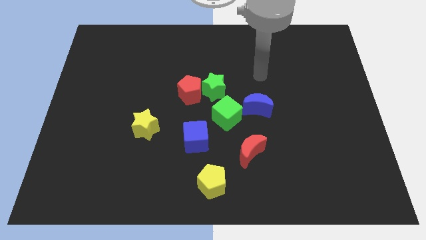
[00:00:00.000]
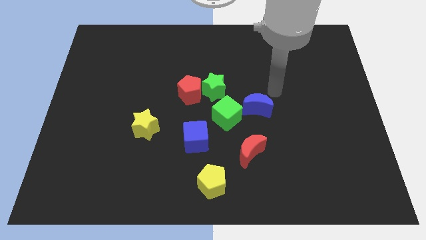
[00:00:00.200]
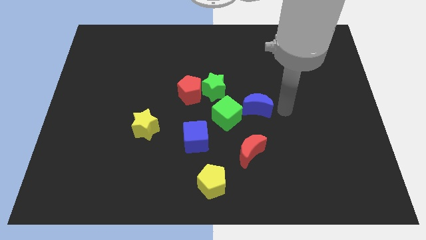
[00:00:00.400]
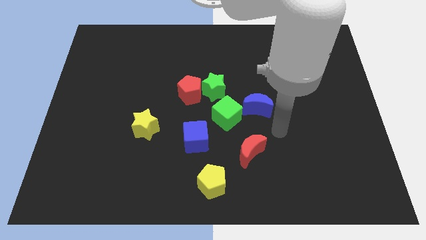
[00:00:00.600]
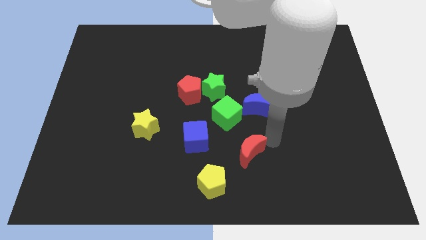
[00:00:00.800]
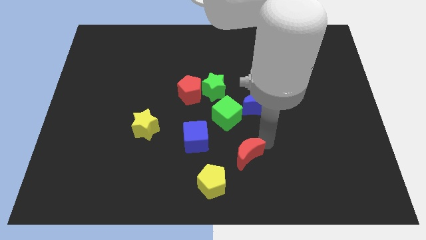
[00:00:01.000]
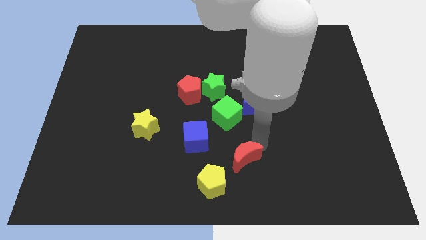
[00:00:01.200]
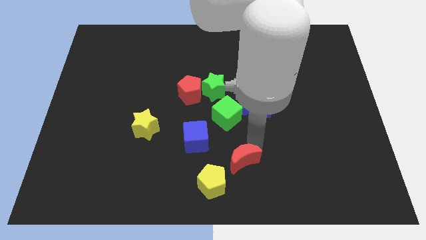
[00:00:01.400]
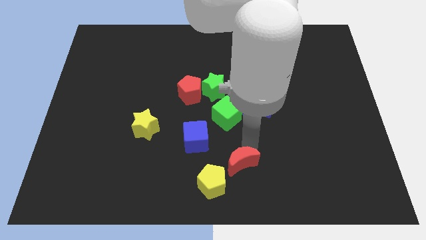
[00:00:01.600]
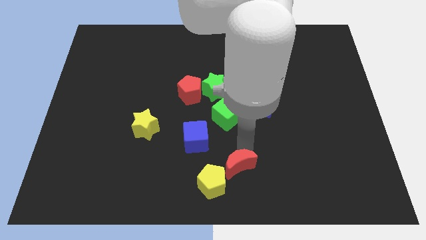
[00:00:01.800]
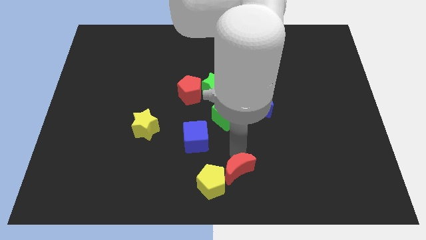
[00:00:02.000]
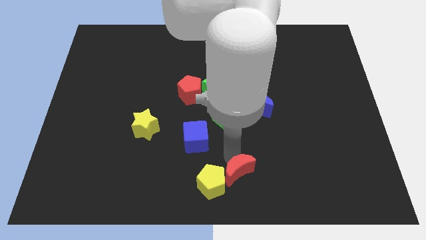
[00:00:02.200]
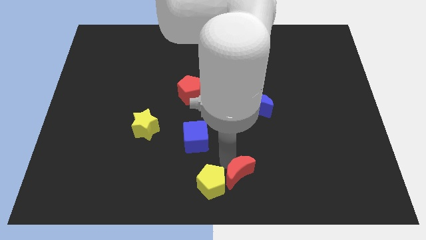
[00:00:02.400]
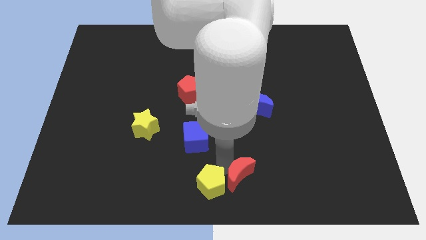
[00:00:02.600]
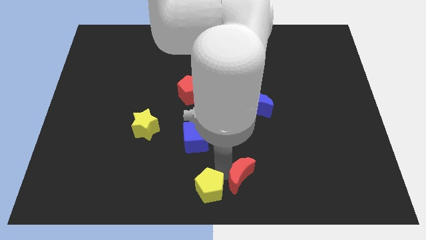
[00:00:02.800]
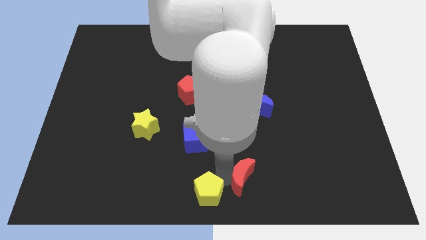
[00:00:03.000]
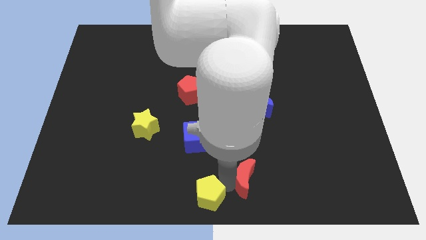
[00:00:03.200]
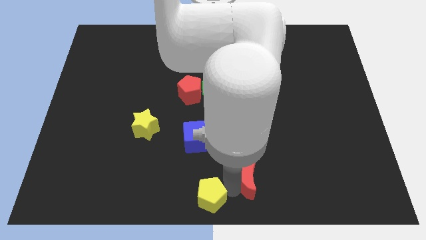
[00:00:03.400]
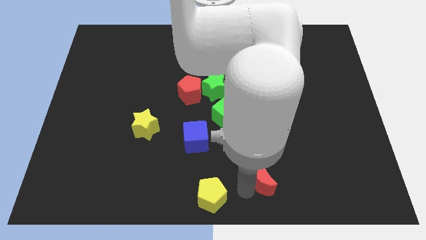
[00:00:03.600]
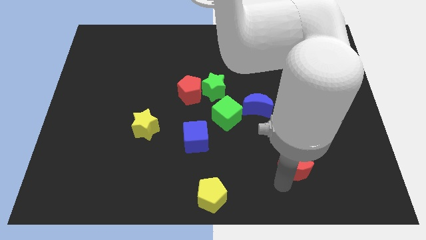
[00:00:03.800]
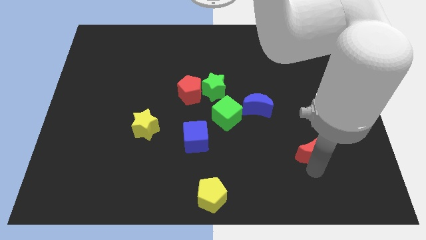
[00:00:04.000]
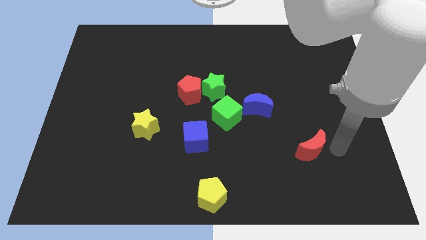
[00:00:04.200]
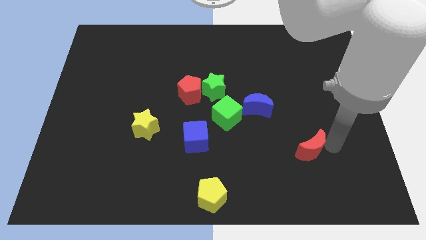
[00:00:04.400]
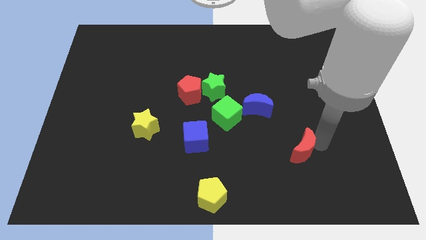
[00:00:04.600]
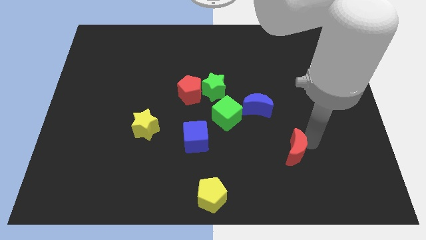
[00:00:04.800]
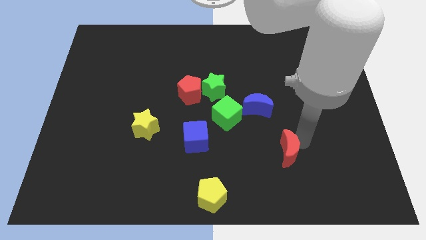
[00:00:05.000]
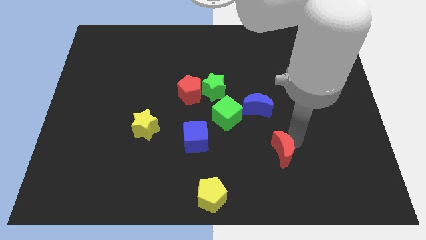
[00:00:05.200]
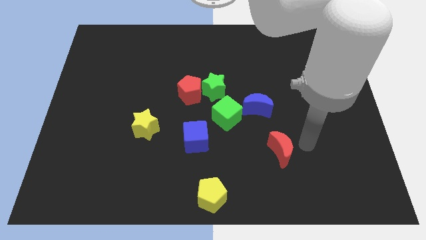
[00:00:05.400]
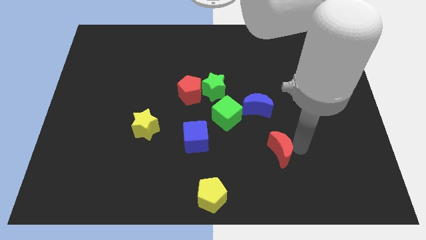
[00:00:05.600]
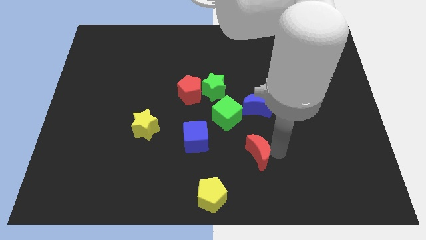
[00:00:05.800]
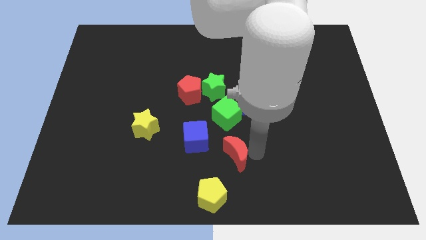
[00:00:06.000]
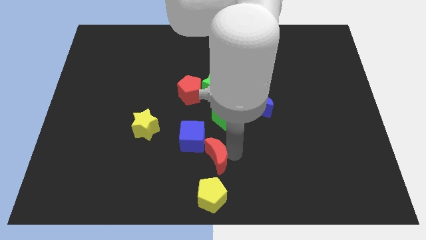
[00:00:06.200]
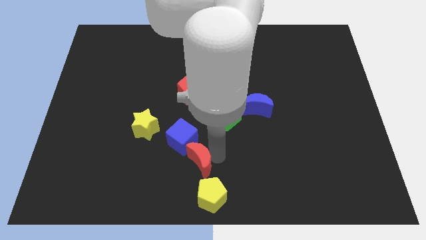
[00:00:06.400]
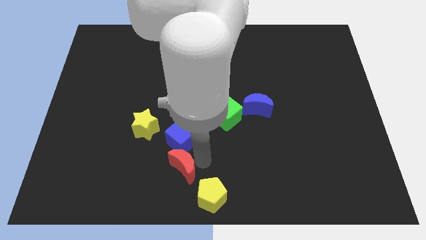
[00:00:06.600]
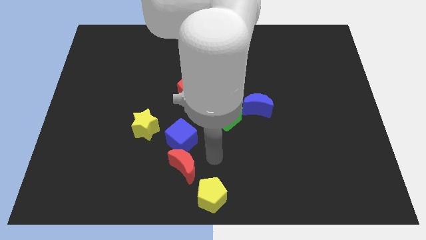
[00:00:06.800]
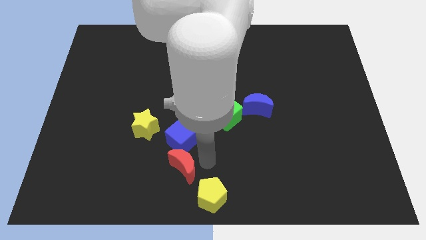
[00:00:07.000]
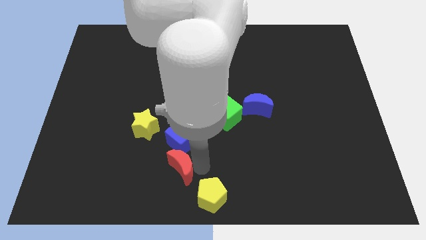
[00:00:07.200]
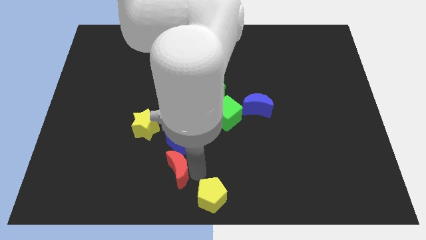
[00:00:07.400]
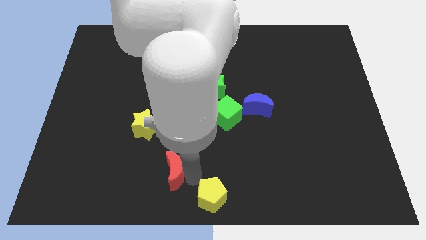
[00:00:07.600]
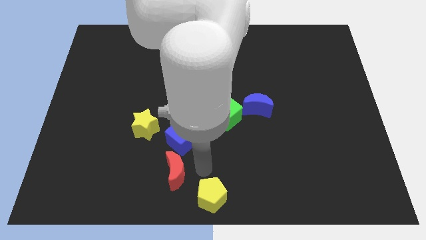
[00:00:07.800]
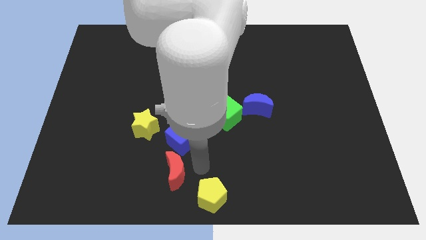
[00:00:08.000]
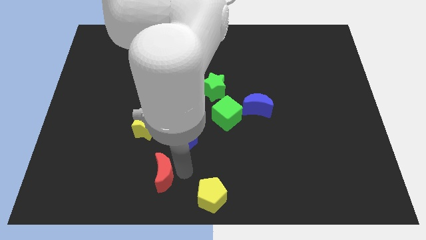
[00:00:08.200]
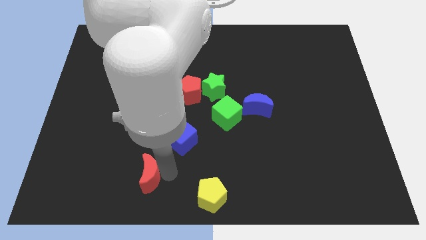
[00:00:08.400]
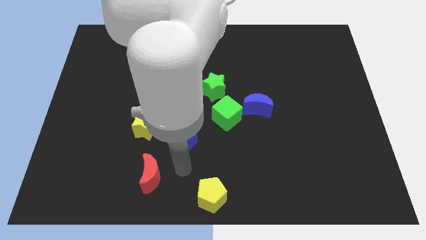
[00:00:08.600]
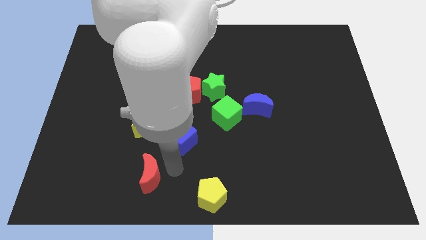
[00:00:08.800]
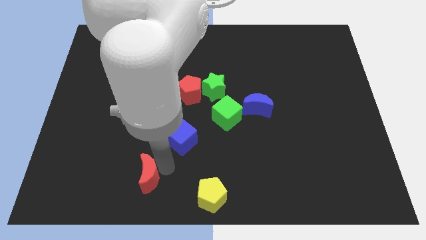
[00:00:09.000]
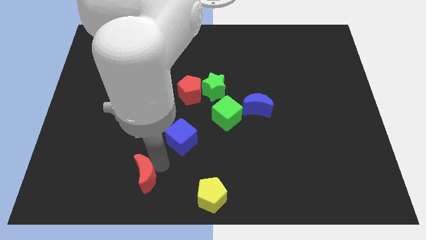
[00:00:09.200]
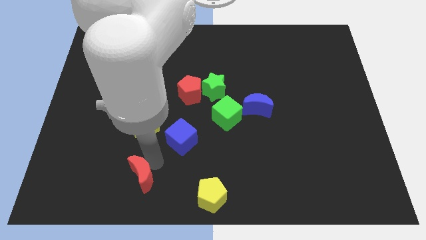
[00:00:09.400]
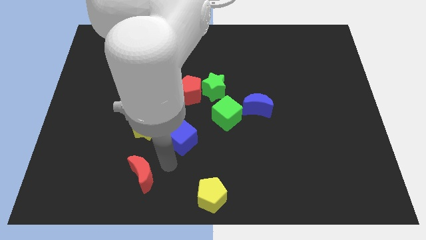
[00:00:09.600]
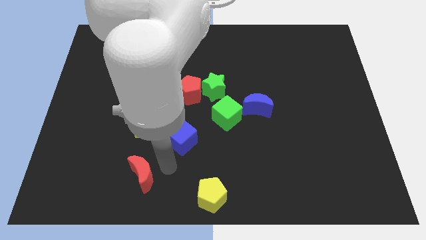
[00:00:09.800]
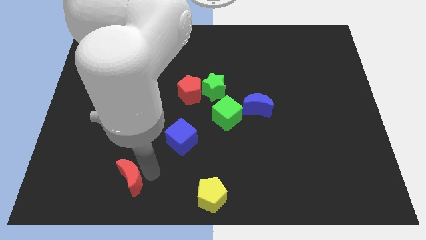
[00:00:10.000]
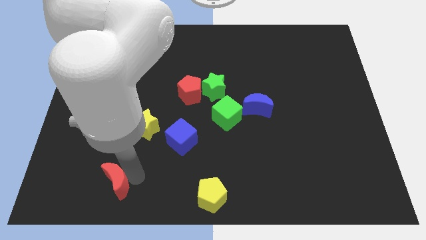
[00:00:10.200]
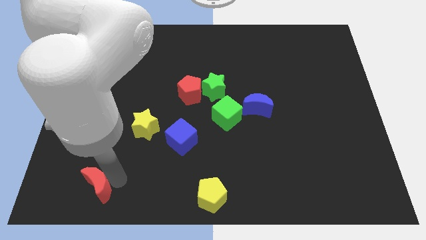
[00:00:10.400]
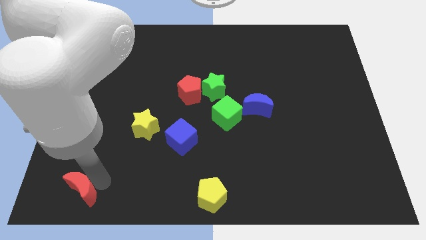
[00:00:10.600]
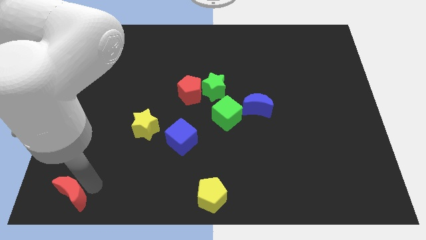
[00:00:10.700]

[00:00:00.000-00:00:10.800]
put the red moon to the bottom left

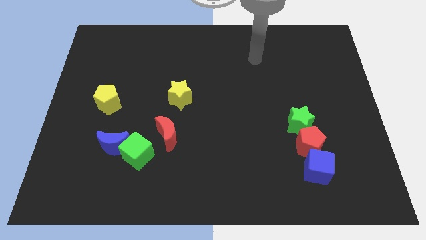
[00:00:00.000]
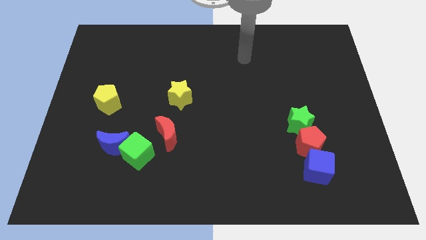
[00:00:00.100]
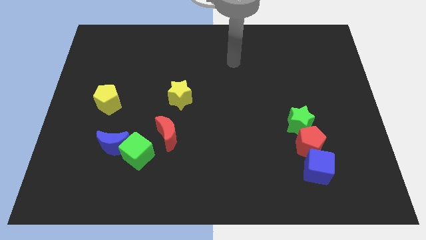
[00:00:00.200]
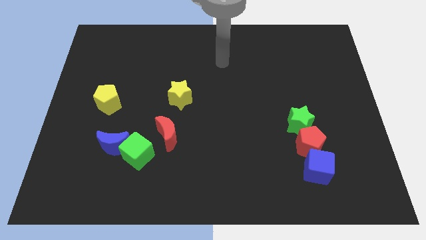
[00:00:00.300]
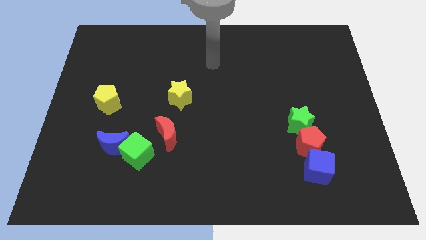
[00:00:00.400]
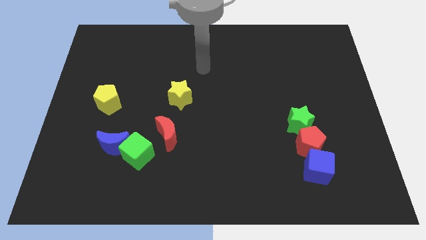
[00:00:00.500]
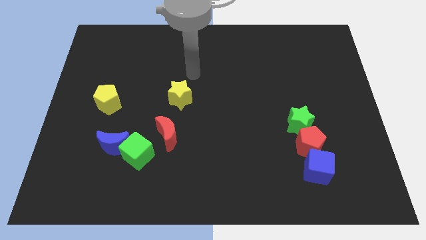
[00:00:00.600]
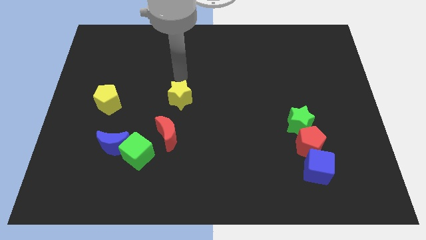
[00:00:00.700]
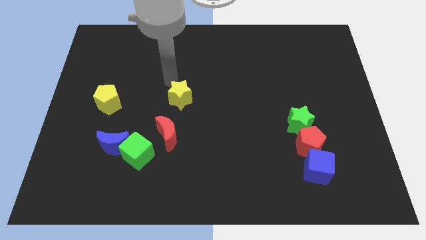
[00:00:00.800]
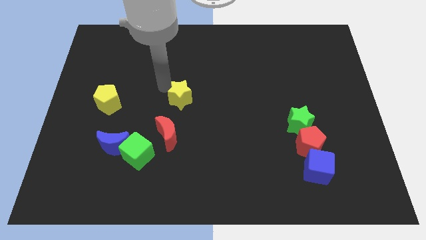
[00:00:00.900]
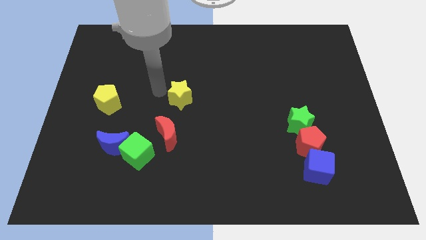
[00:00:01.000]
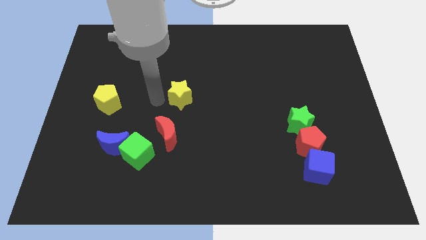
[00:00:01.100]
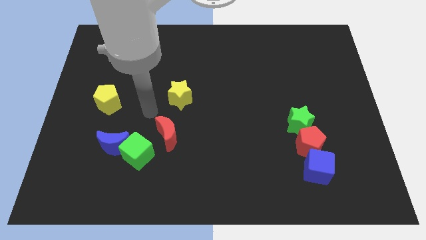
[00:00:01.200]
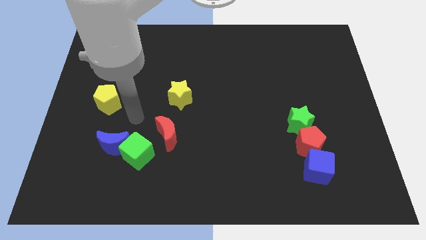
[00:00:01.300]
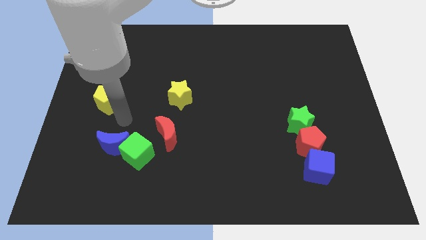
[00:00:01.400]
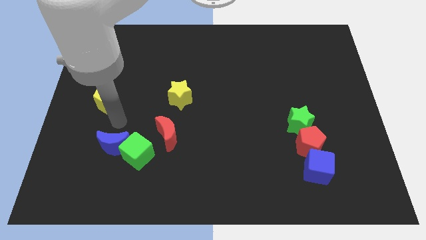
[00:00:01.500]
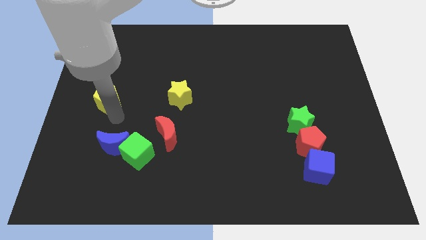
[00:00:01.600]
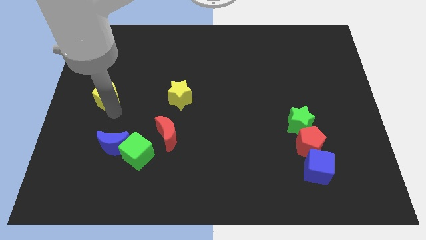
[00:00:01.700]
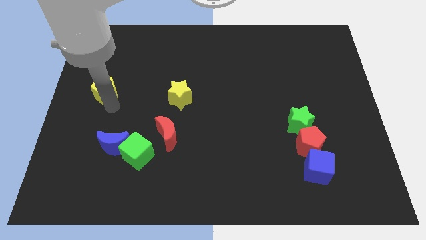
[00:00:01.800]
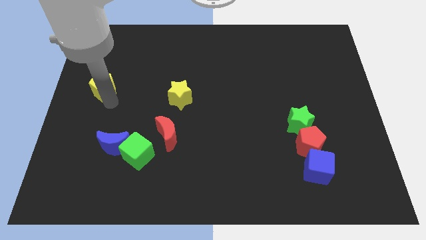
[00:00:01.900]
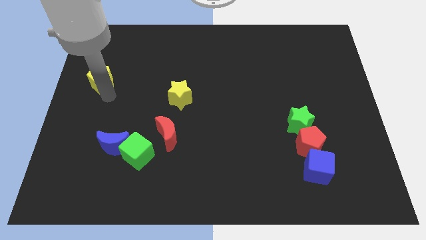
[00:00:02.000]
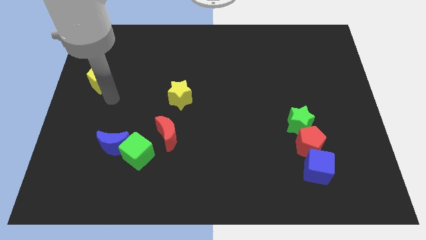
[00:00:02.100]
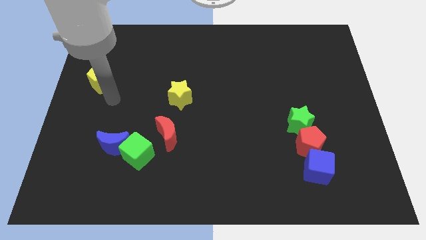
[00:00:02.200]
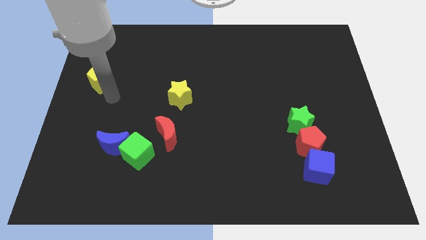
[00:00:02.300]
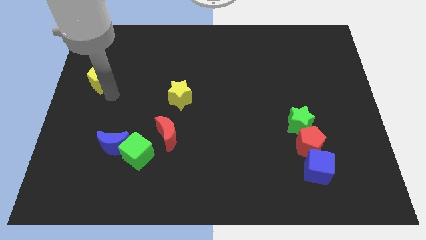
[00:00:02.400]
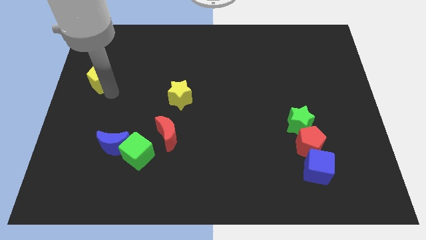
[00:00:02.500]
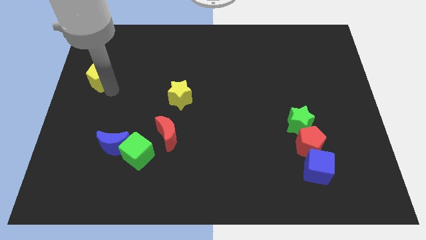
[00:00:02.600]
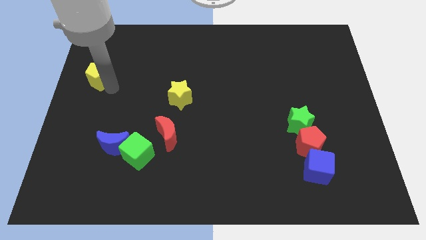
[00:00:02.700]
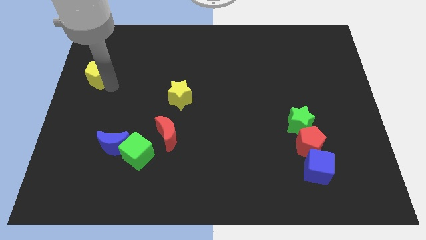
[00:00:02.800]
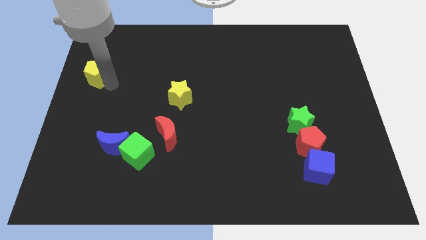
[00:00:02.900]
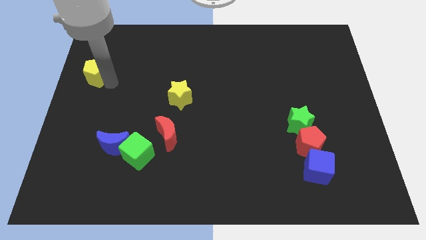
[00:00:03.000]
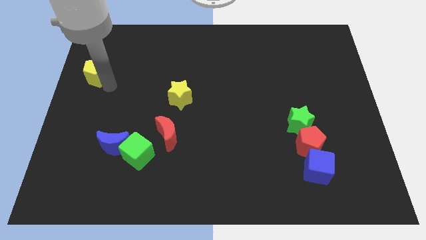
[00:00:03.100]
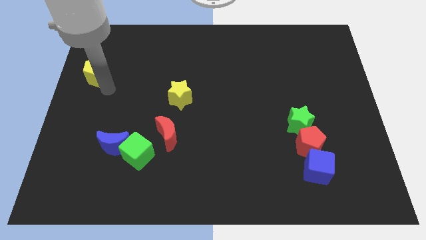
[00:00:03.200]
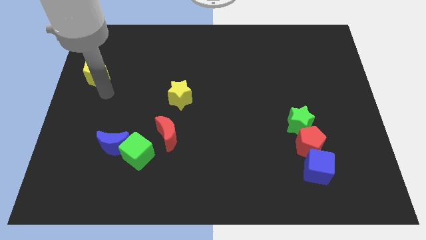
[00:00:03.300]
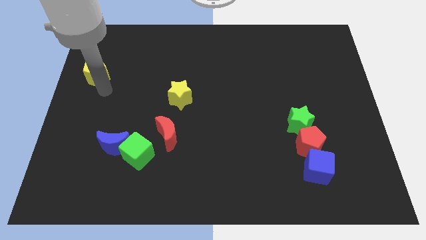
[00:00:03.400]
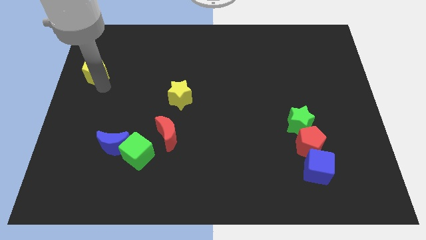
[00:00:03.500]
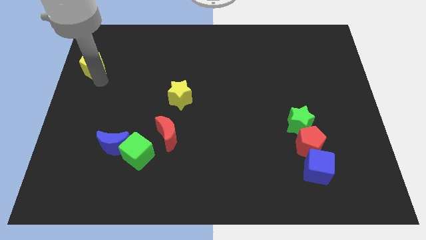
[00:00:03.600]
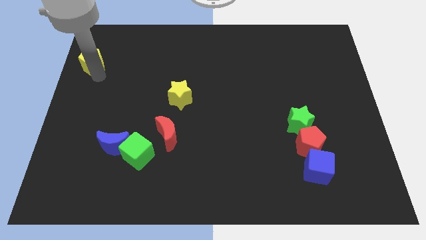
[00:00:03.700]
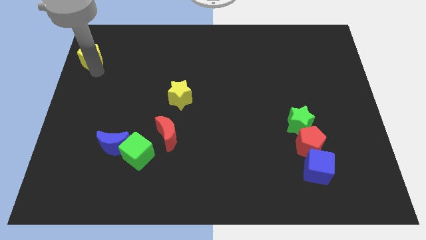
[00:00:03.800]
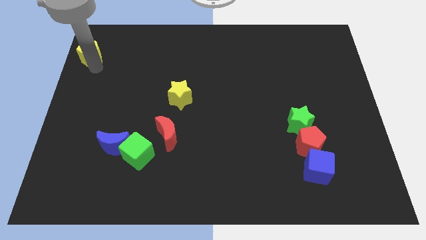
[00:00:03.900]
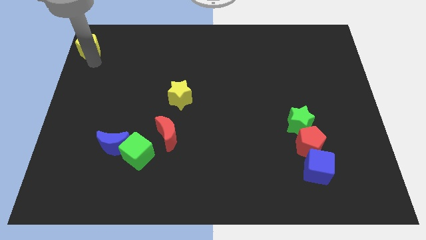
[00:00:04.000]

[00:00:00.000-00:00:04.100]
push the yellow pentagon to the top left of the board
